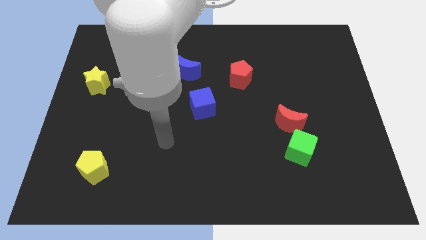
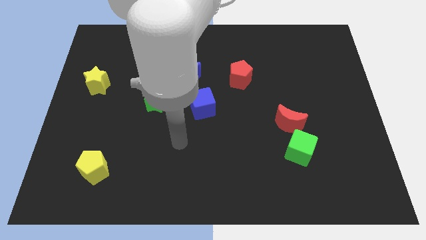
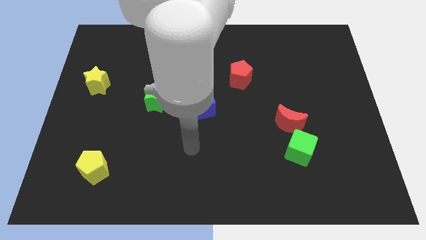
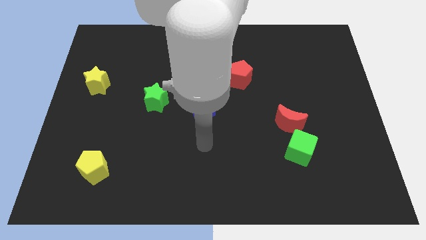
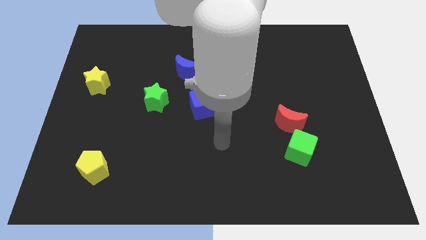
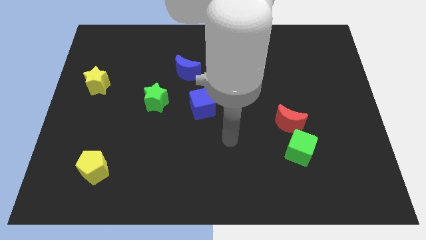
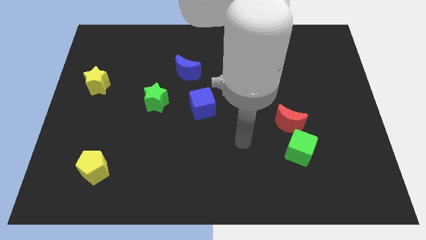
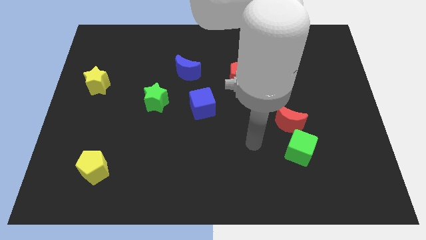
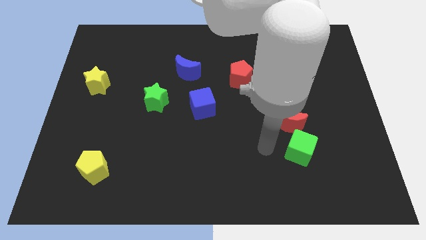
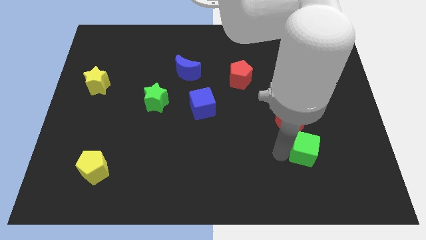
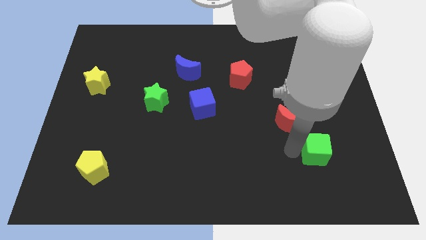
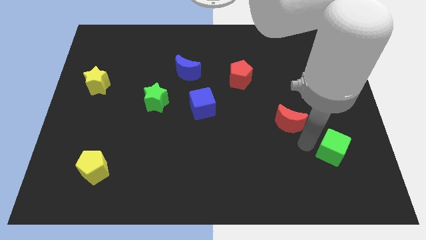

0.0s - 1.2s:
move the red moon away from the green cube

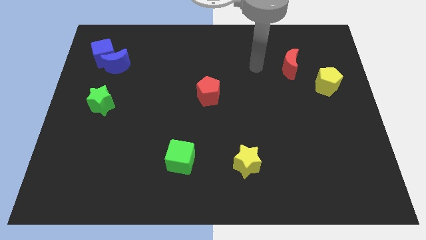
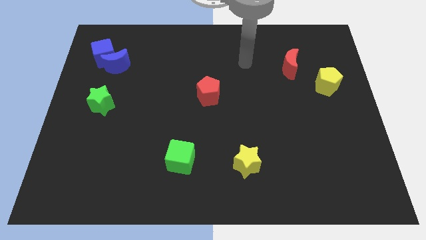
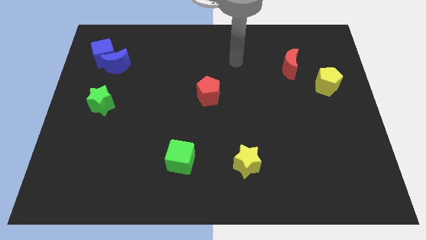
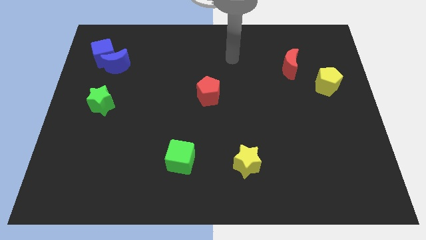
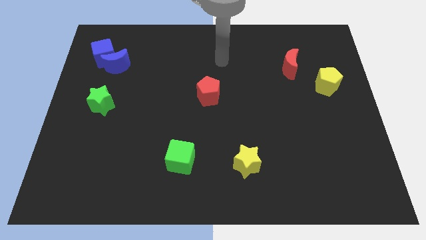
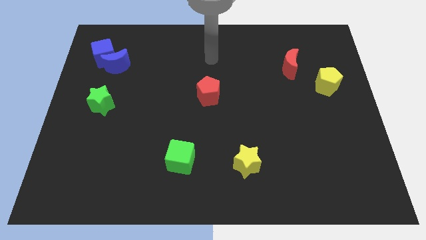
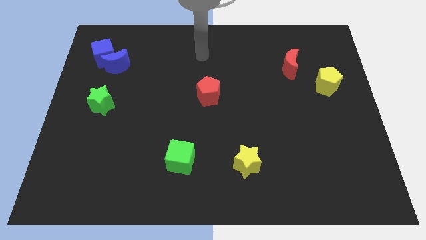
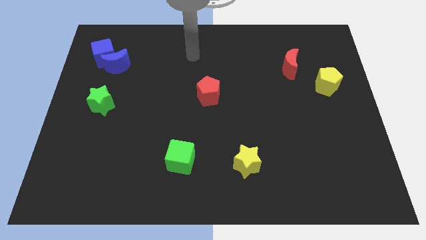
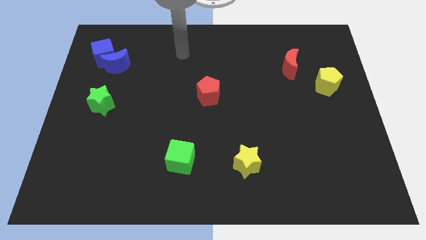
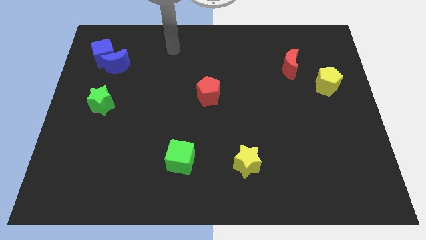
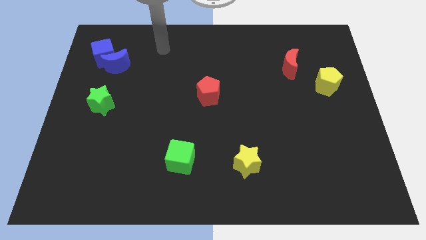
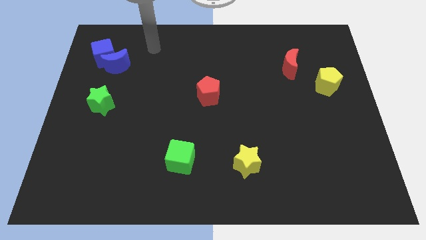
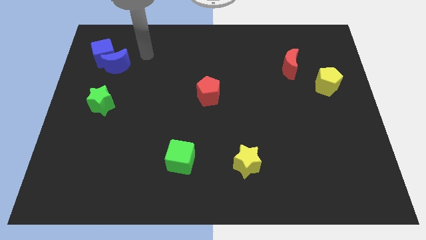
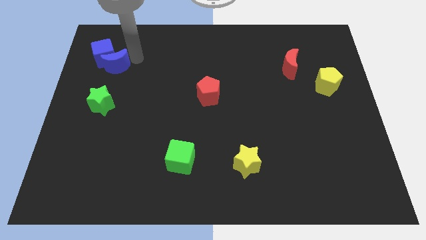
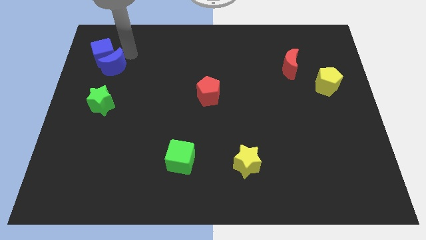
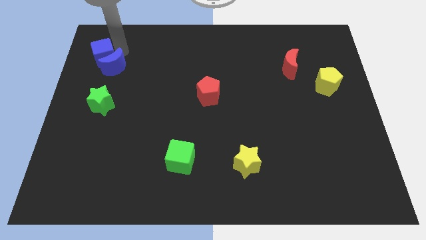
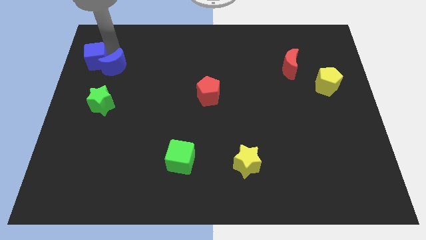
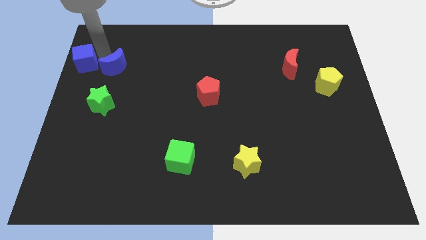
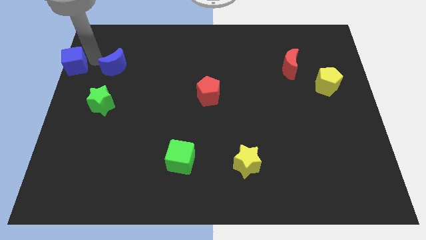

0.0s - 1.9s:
separate the blue moon from the blue cube

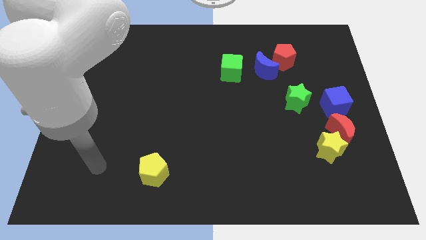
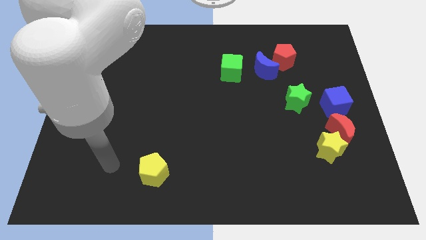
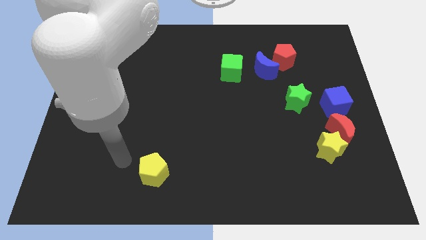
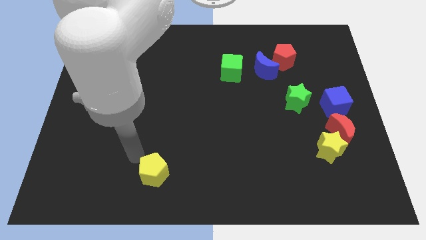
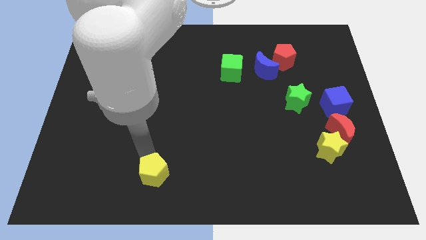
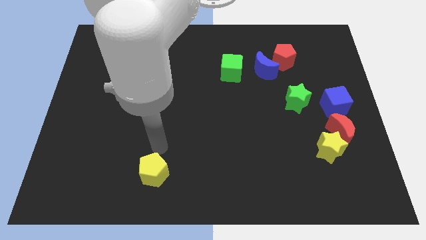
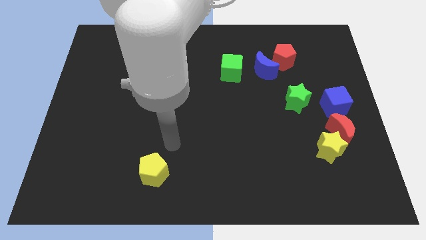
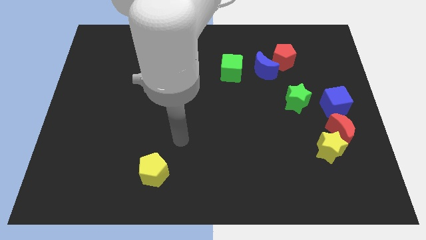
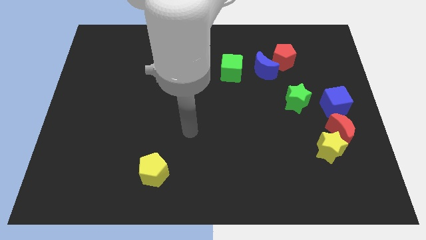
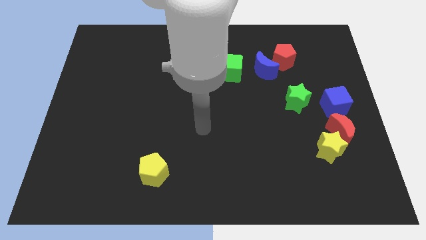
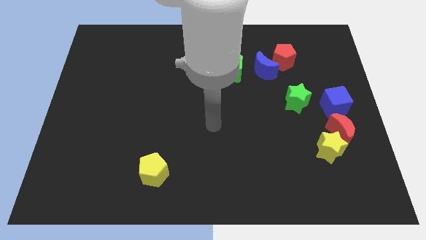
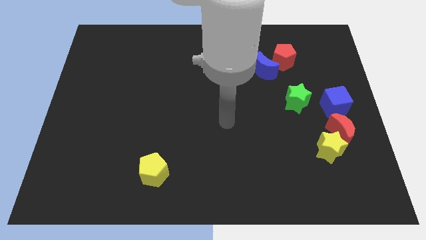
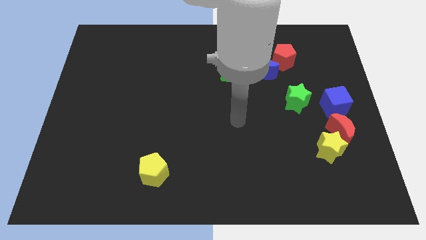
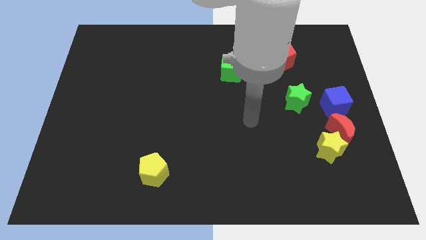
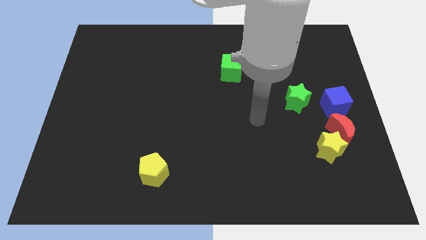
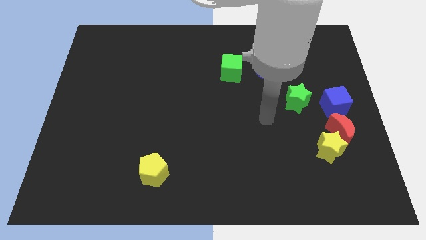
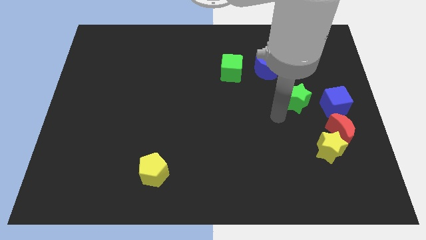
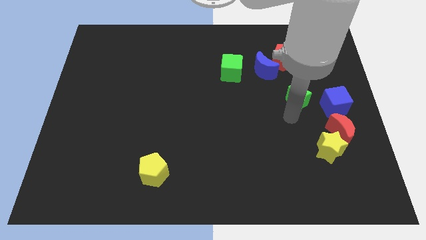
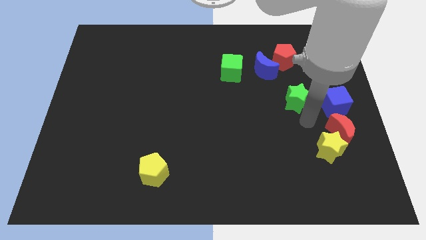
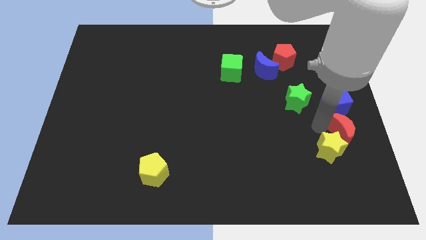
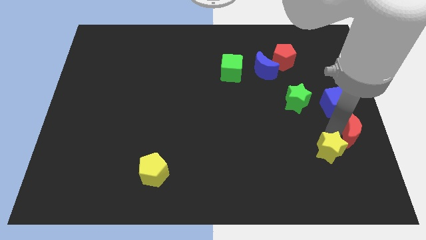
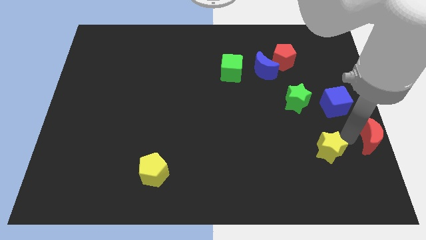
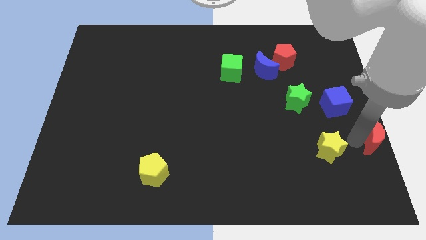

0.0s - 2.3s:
move the yellow star away from the red moon

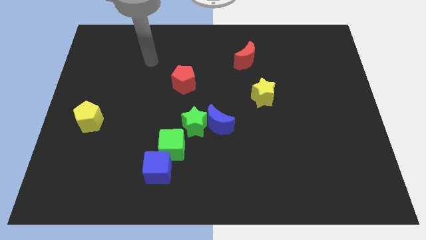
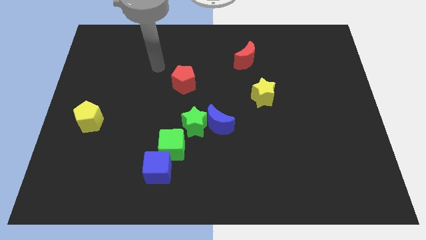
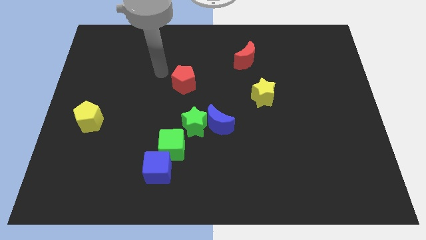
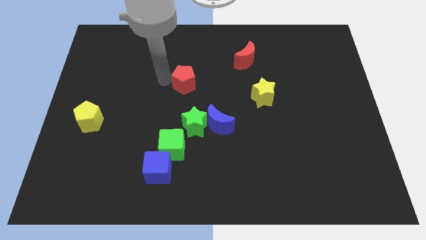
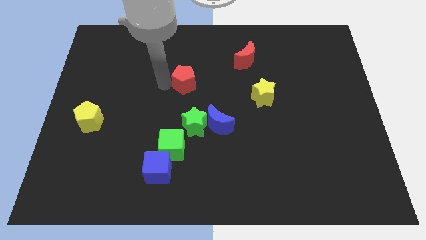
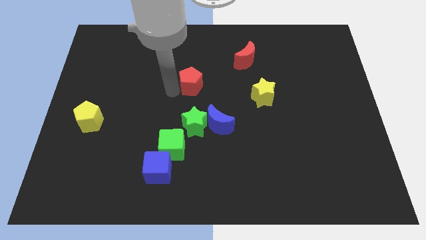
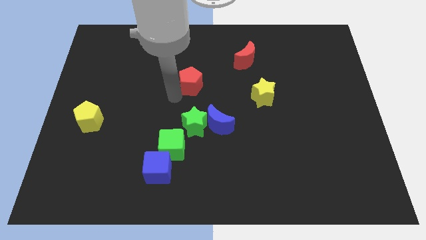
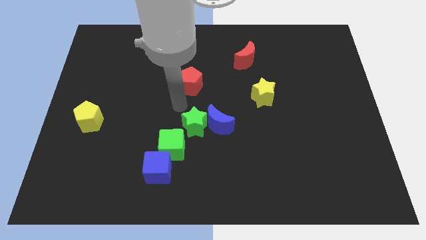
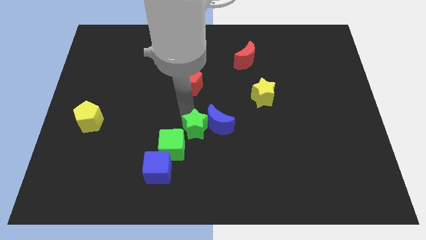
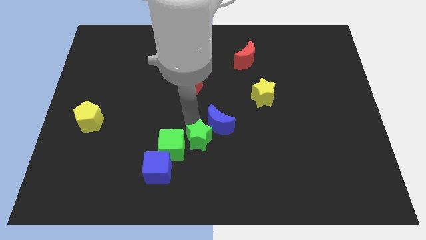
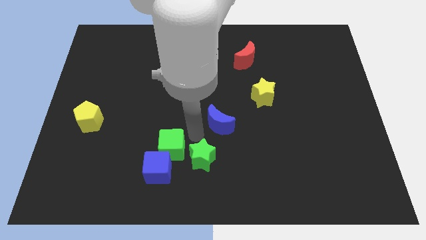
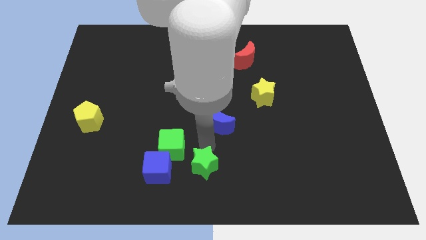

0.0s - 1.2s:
separate the blue moon from the green star

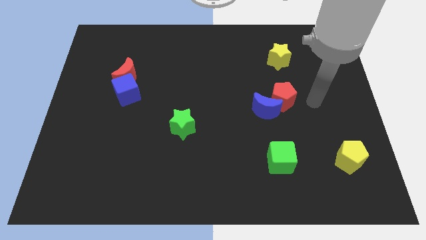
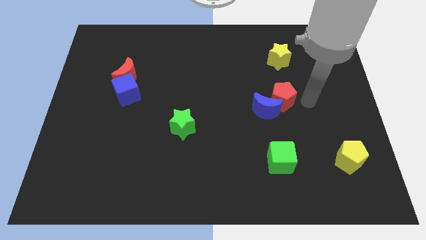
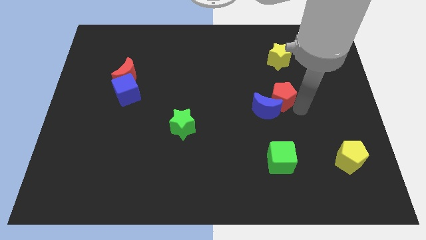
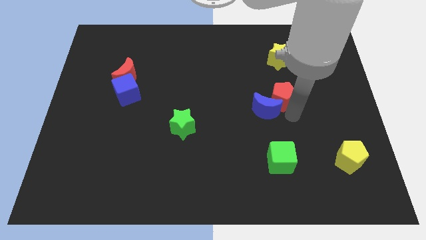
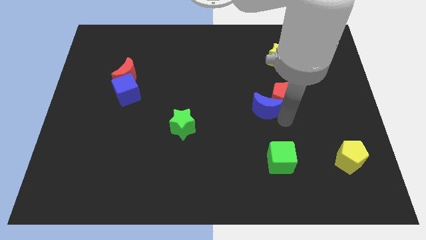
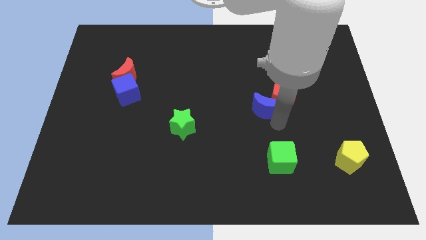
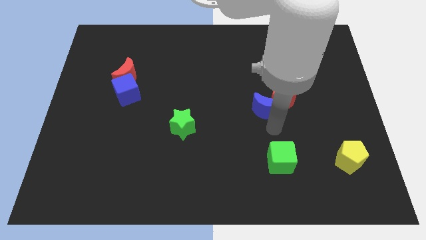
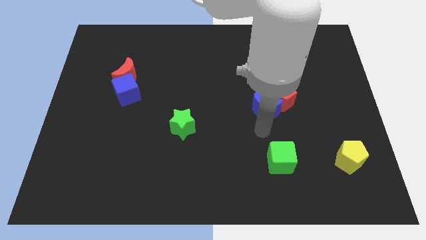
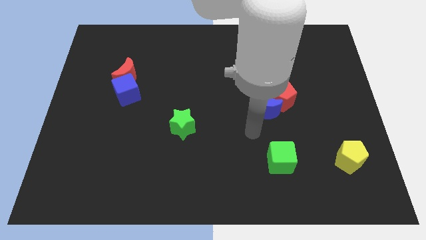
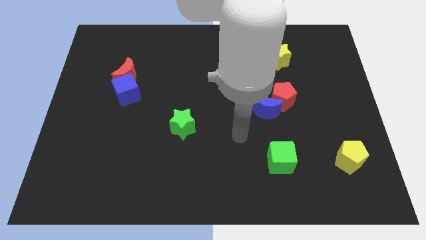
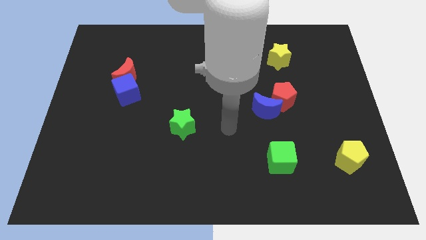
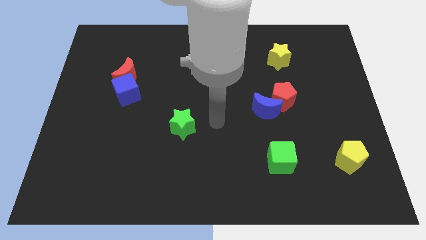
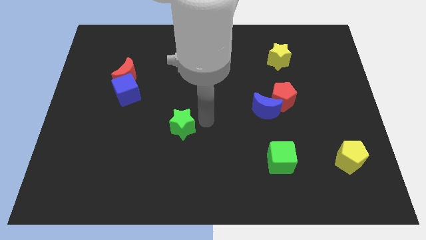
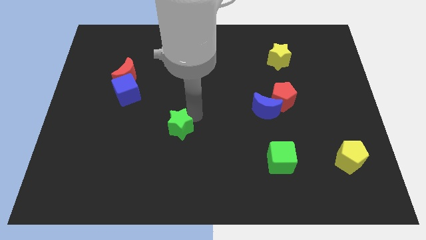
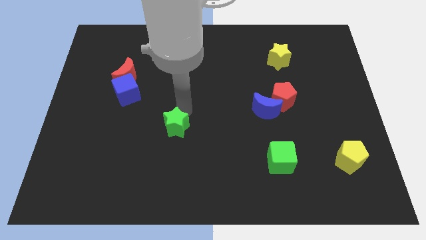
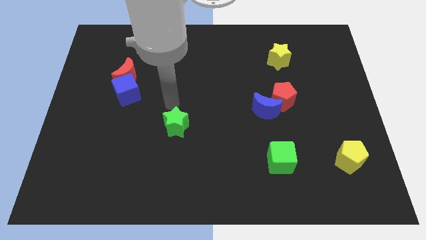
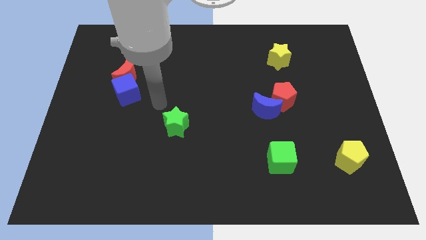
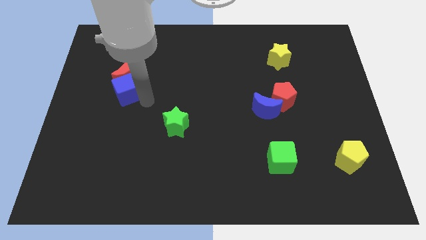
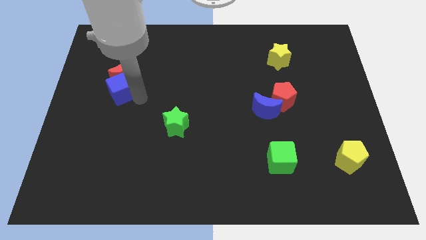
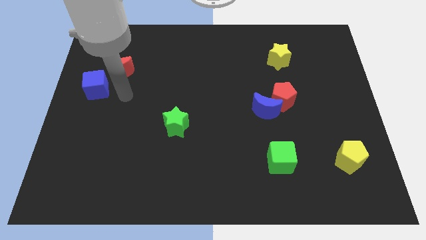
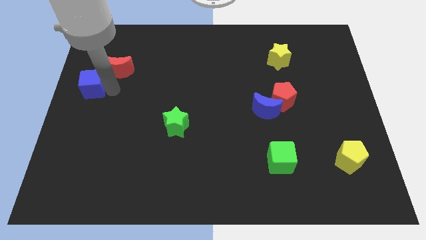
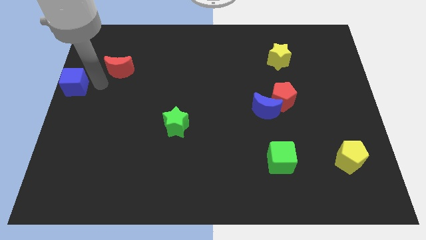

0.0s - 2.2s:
move the red moon away from the blue cube

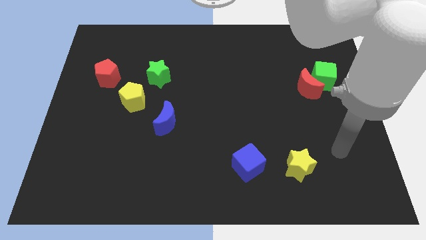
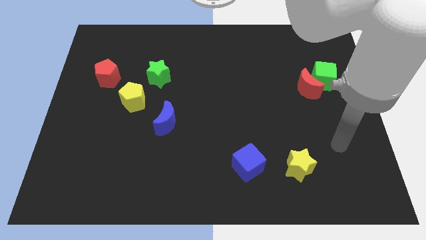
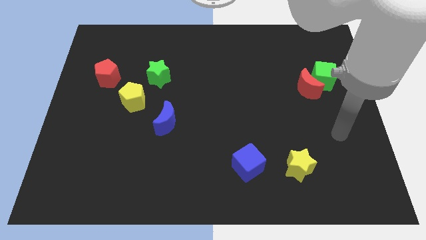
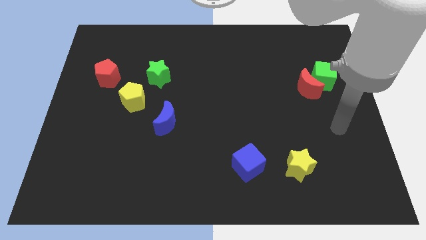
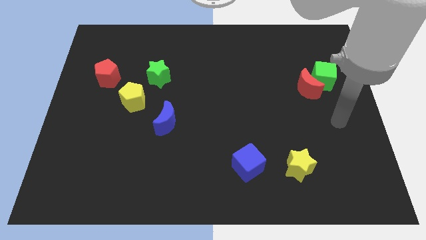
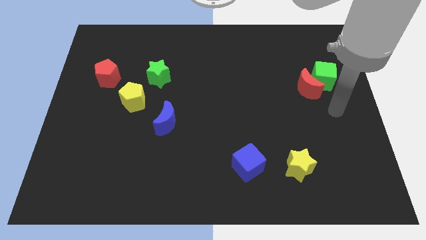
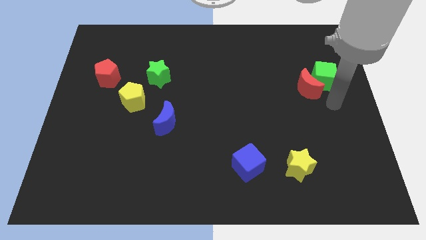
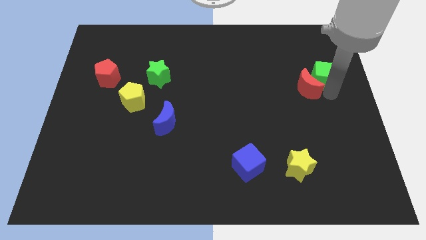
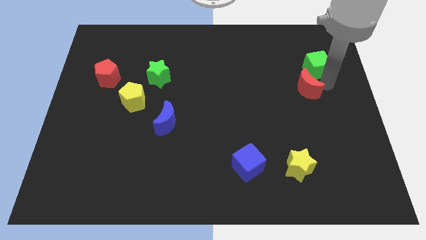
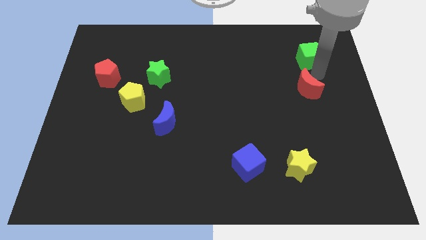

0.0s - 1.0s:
pull the red moon apart from the green cube
